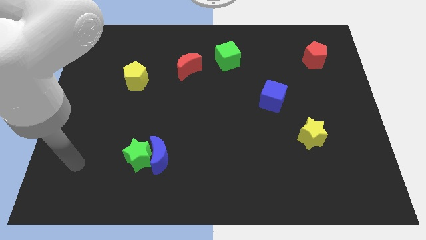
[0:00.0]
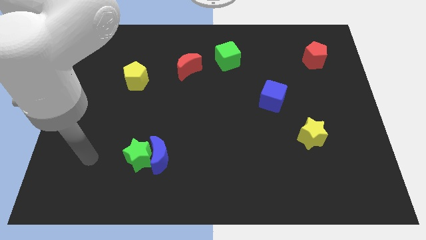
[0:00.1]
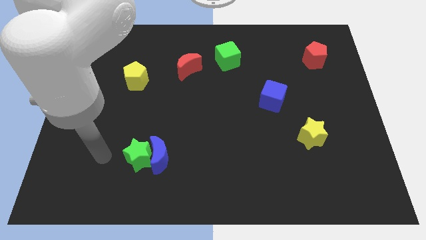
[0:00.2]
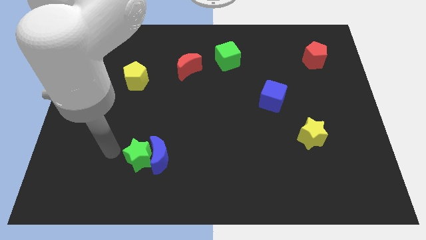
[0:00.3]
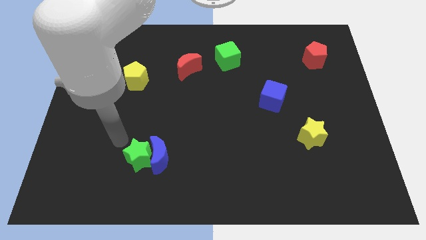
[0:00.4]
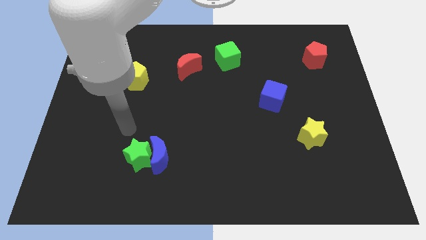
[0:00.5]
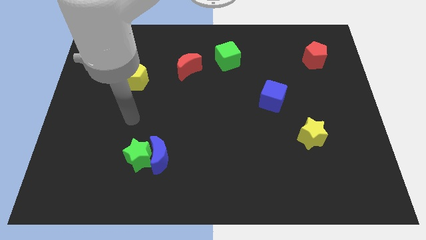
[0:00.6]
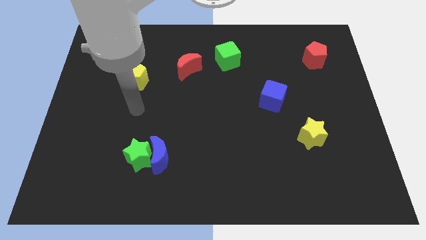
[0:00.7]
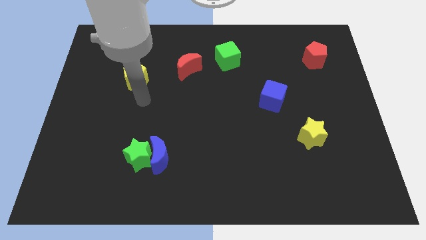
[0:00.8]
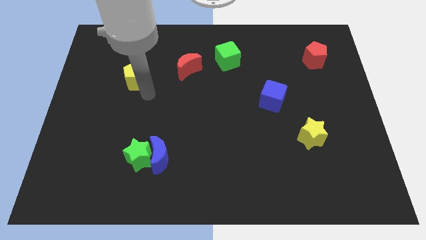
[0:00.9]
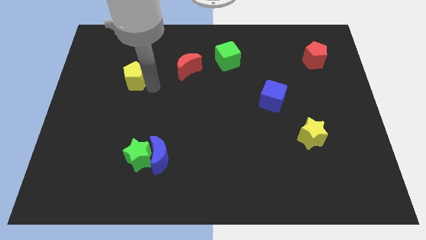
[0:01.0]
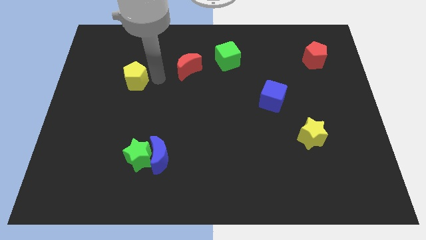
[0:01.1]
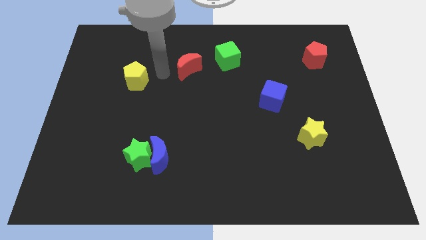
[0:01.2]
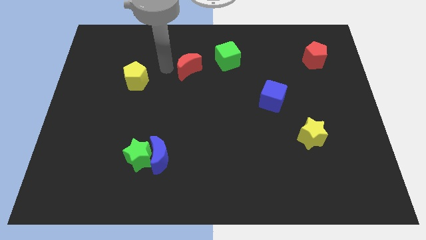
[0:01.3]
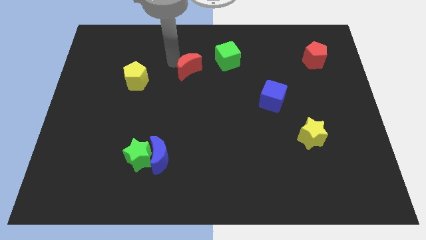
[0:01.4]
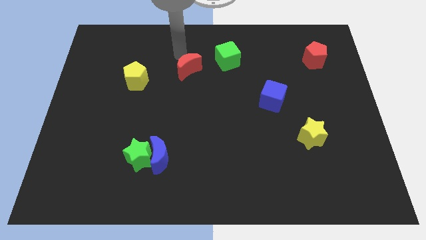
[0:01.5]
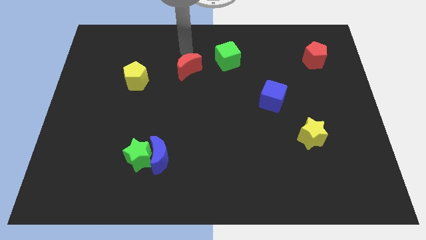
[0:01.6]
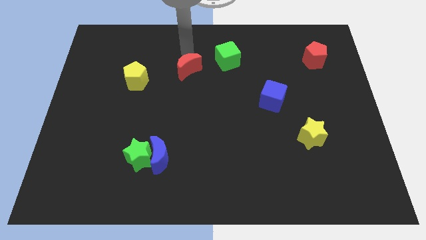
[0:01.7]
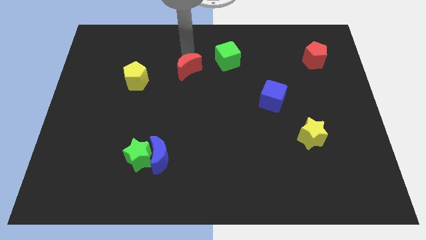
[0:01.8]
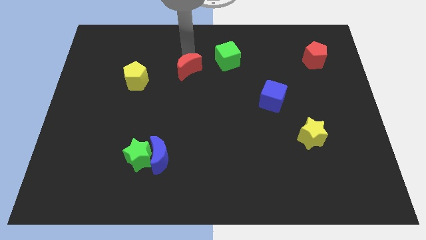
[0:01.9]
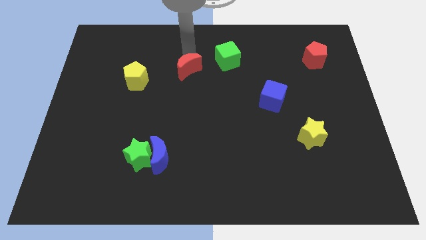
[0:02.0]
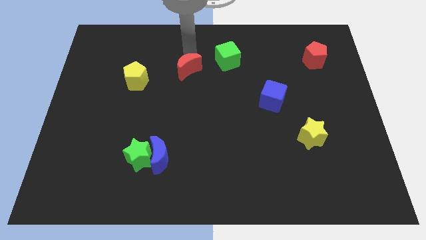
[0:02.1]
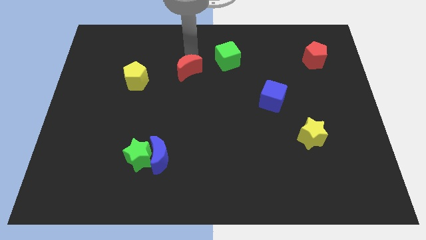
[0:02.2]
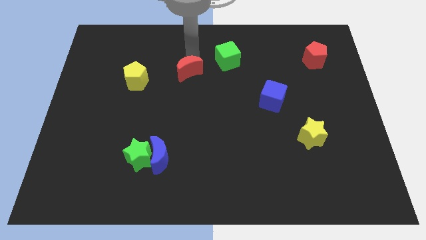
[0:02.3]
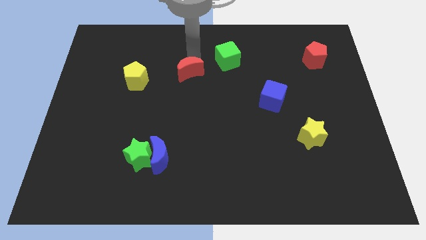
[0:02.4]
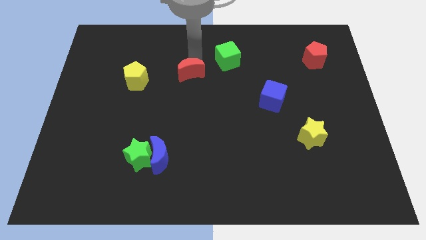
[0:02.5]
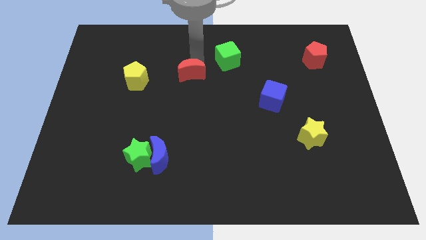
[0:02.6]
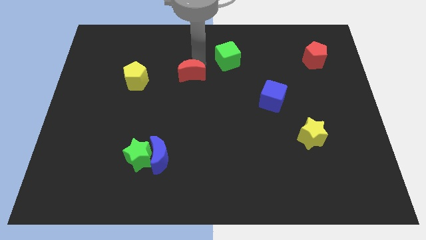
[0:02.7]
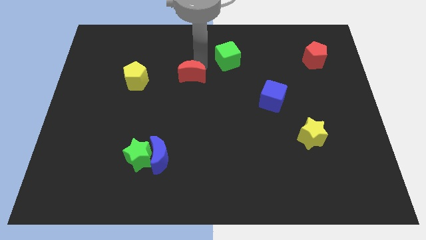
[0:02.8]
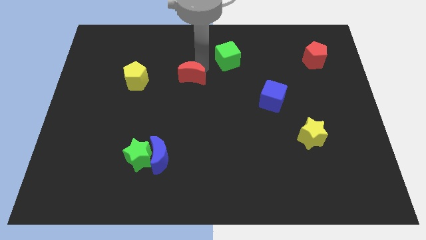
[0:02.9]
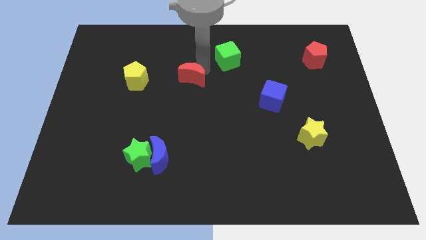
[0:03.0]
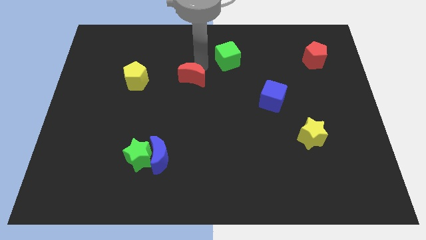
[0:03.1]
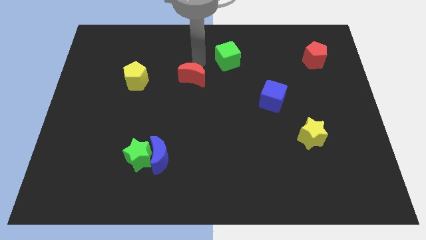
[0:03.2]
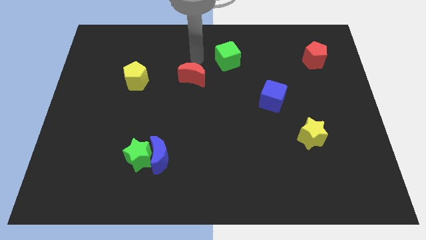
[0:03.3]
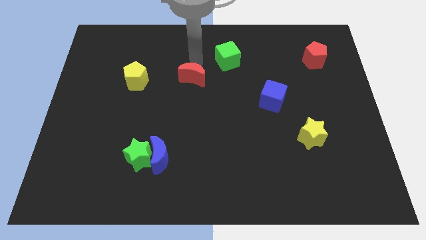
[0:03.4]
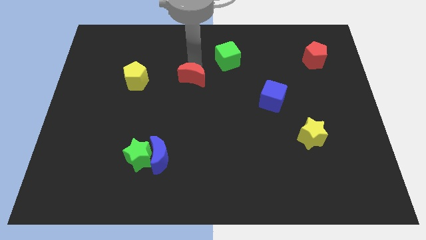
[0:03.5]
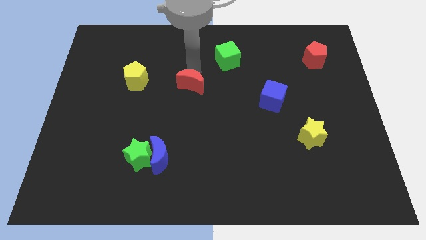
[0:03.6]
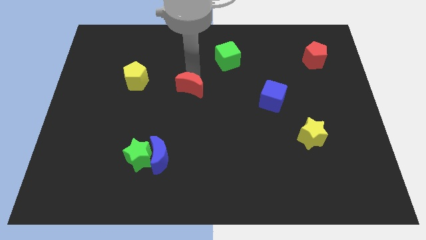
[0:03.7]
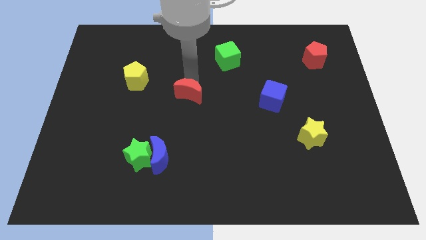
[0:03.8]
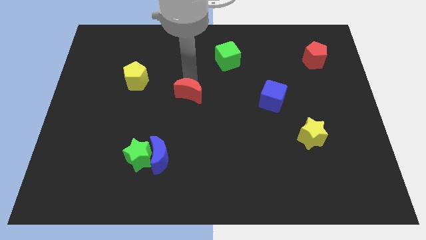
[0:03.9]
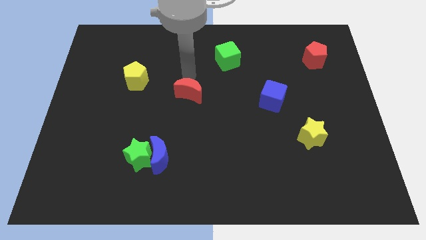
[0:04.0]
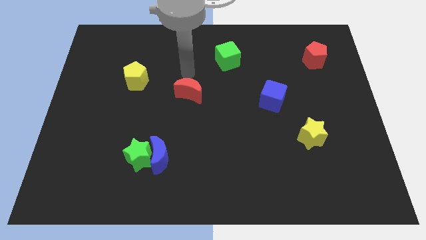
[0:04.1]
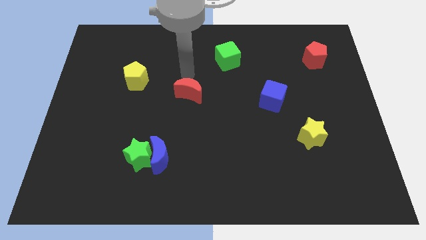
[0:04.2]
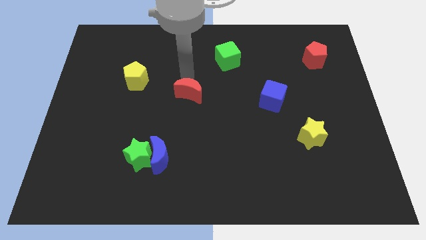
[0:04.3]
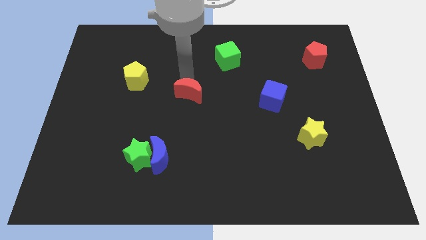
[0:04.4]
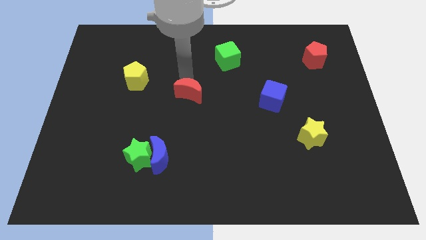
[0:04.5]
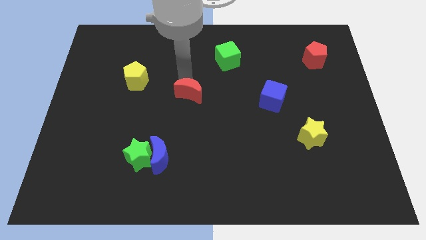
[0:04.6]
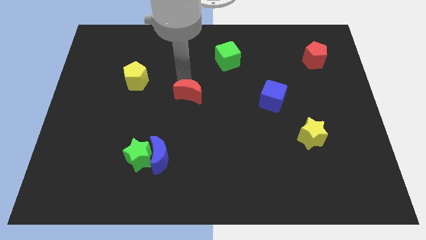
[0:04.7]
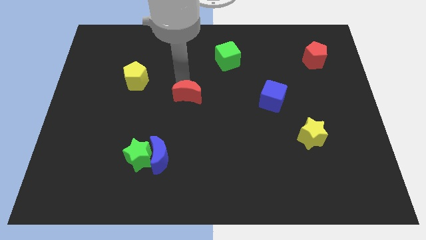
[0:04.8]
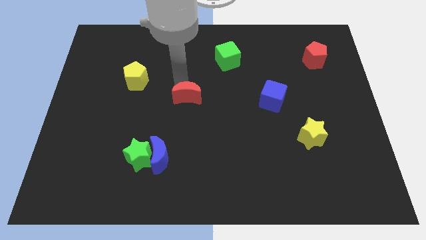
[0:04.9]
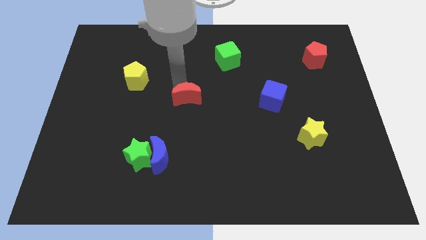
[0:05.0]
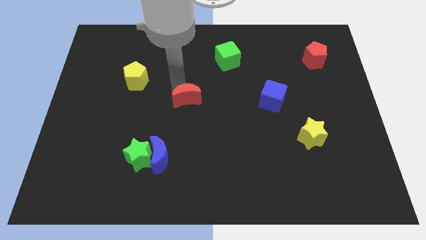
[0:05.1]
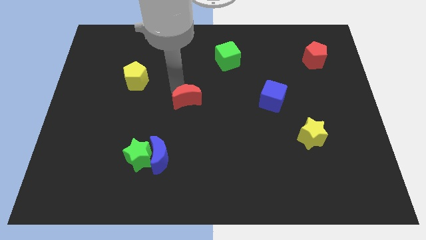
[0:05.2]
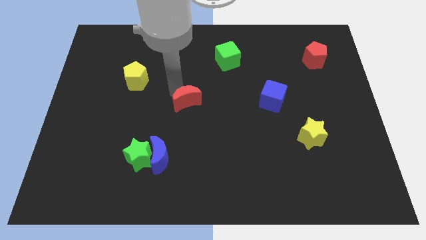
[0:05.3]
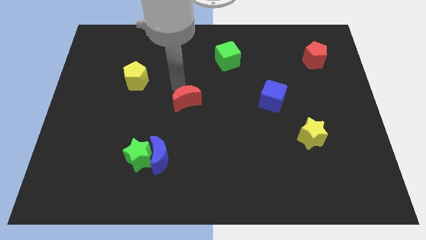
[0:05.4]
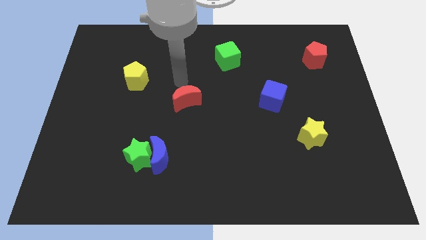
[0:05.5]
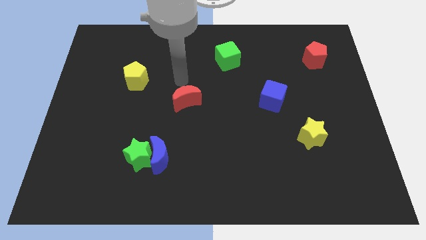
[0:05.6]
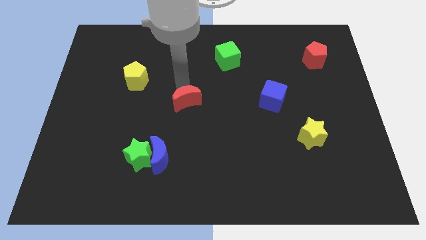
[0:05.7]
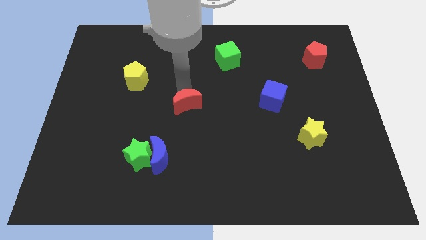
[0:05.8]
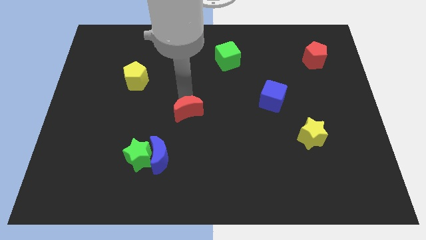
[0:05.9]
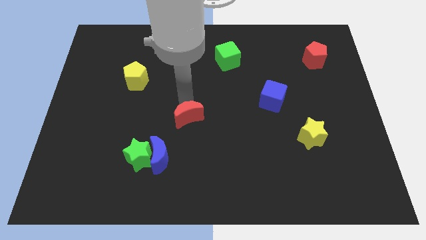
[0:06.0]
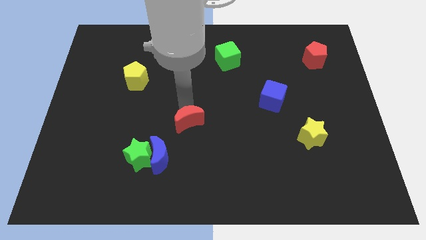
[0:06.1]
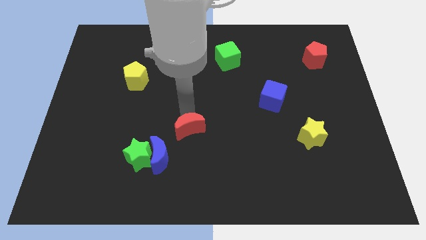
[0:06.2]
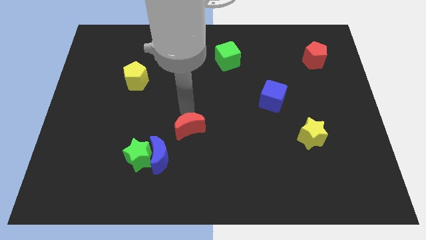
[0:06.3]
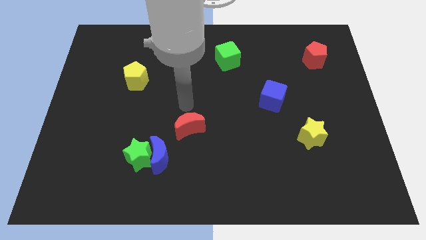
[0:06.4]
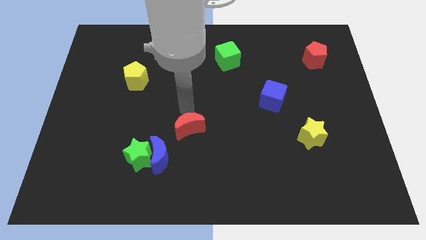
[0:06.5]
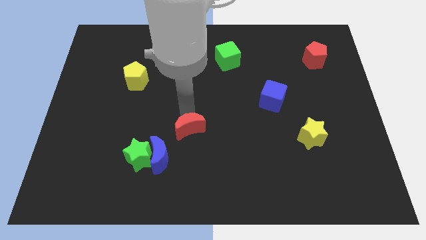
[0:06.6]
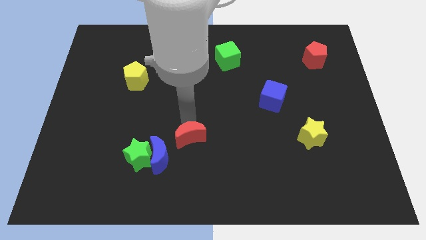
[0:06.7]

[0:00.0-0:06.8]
push the red moon down

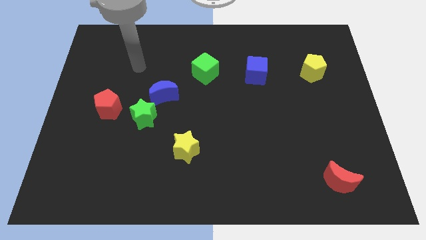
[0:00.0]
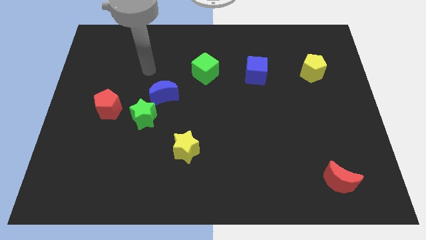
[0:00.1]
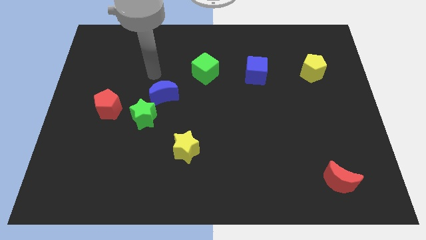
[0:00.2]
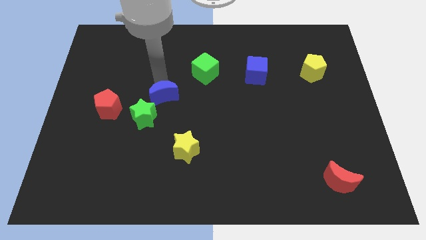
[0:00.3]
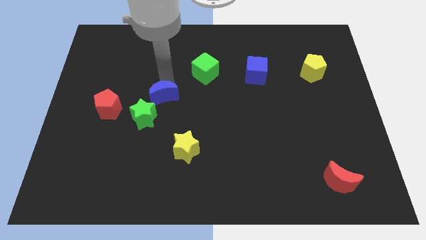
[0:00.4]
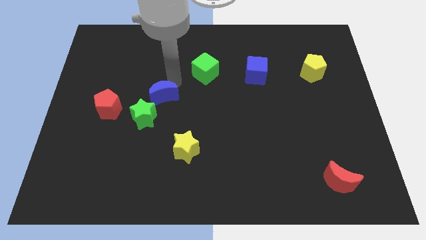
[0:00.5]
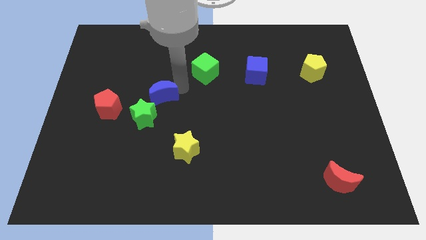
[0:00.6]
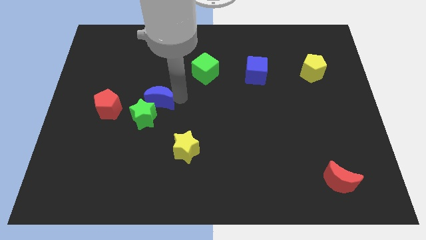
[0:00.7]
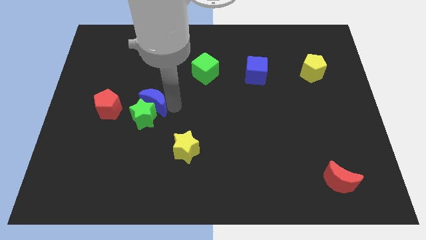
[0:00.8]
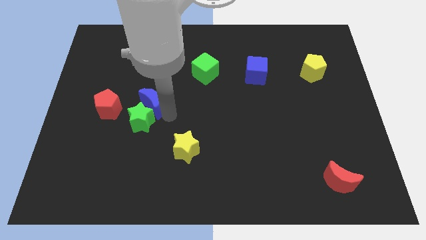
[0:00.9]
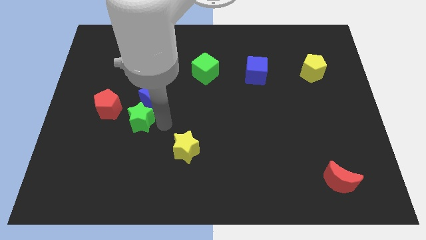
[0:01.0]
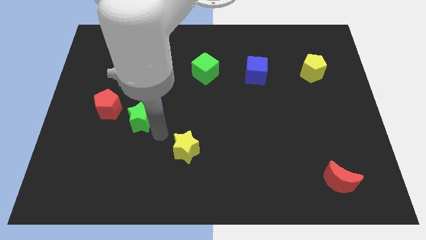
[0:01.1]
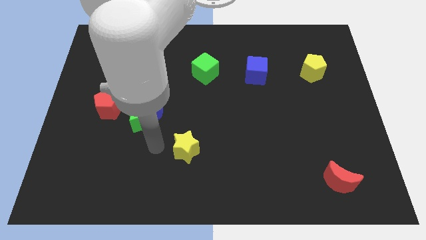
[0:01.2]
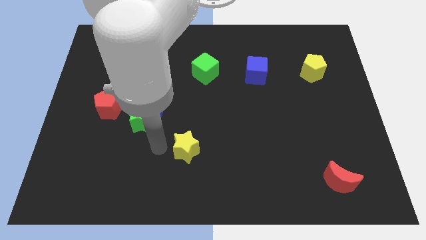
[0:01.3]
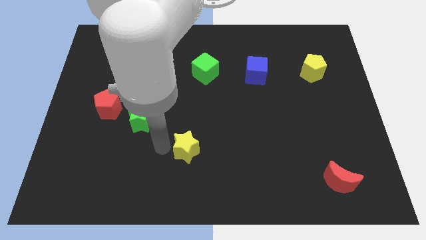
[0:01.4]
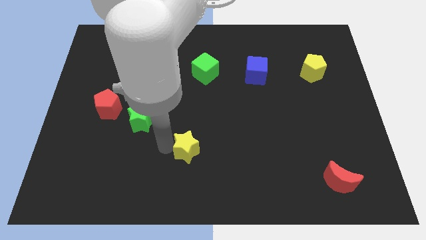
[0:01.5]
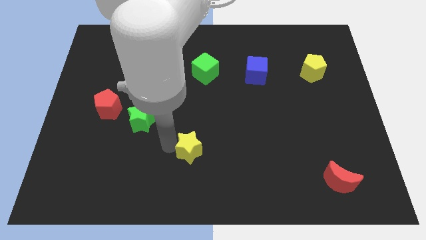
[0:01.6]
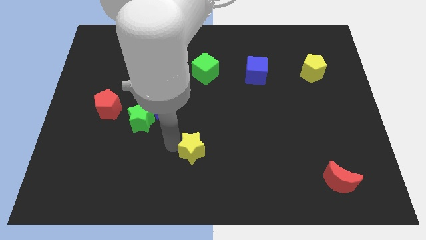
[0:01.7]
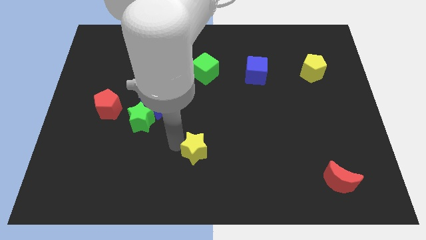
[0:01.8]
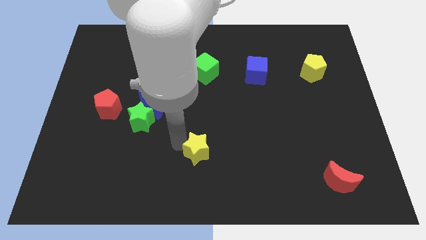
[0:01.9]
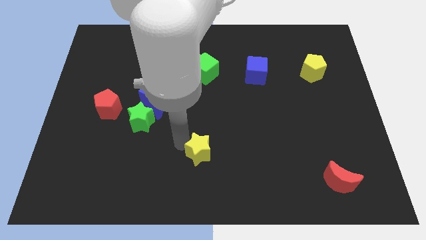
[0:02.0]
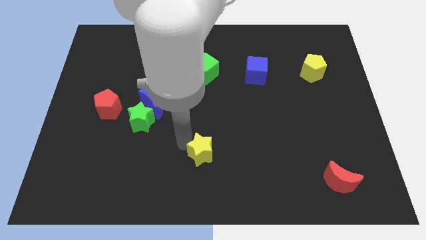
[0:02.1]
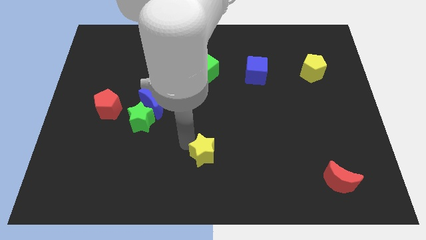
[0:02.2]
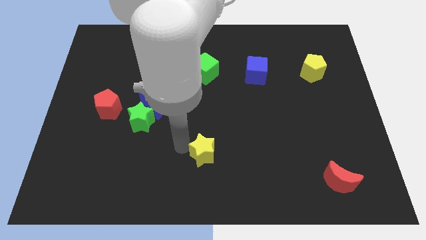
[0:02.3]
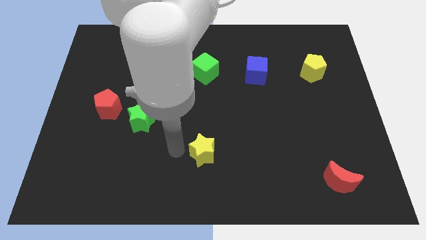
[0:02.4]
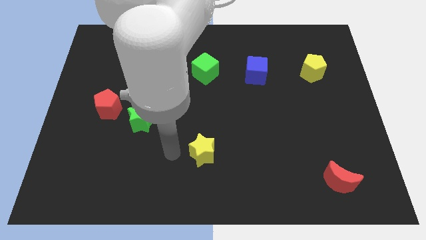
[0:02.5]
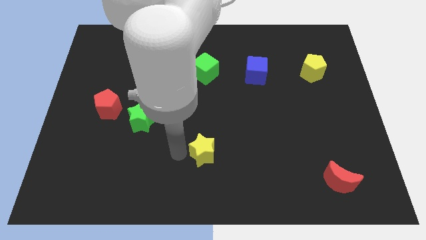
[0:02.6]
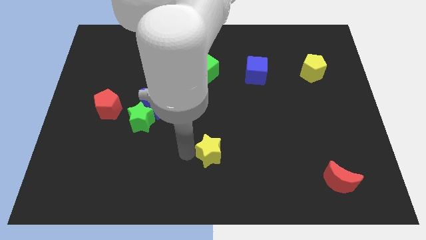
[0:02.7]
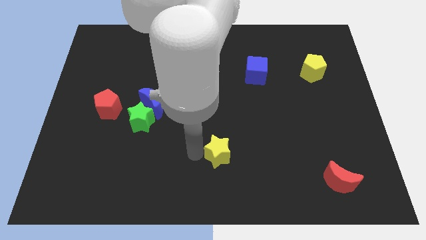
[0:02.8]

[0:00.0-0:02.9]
push the yellow star a little bit right
